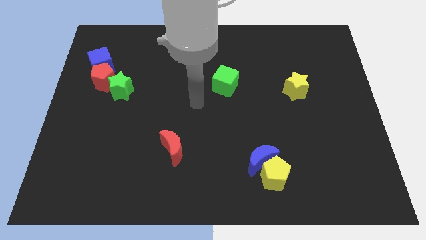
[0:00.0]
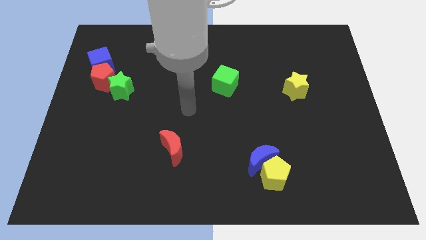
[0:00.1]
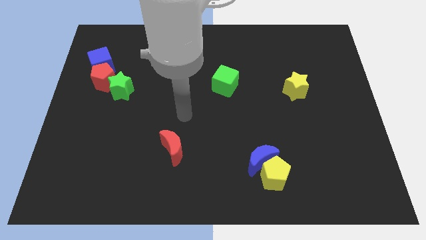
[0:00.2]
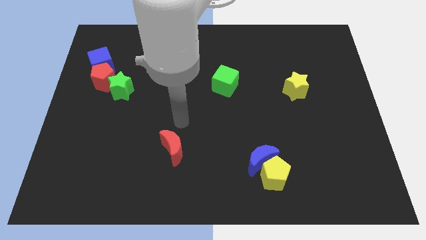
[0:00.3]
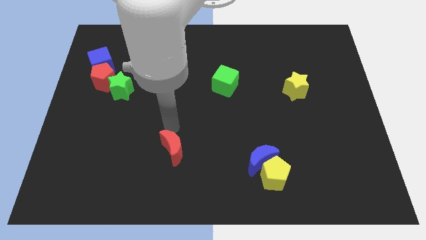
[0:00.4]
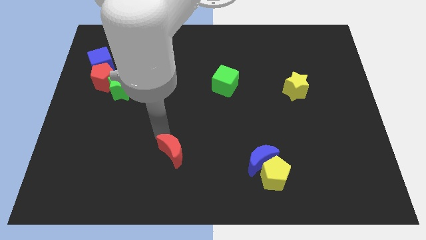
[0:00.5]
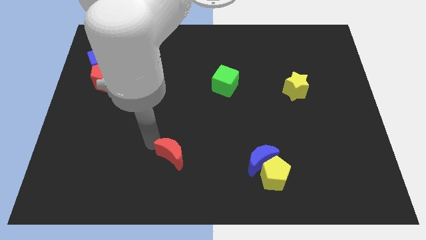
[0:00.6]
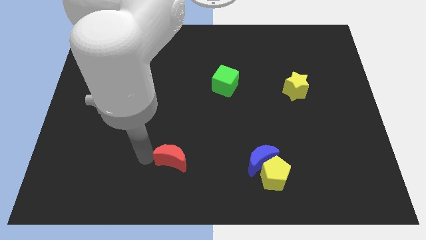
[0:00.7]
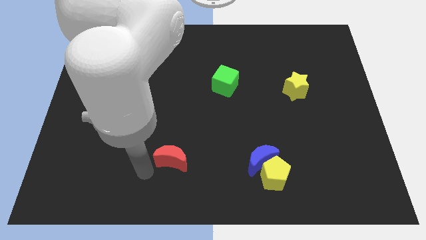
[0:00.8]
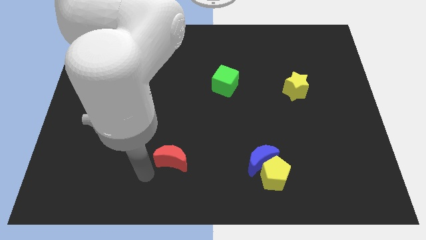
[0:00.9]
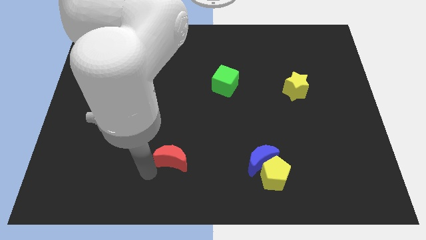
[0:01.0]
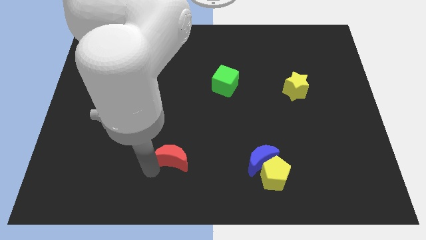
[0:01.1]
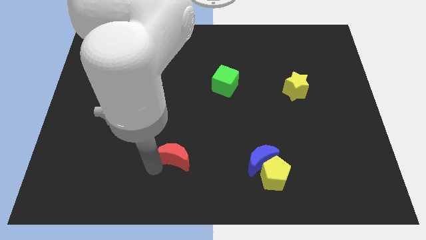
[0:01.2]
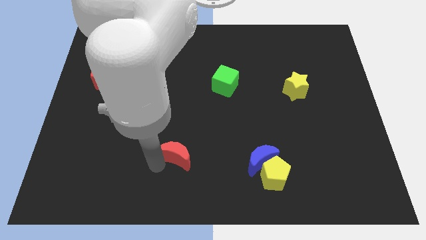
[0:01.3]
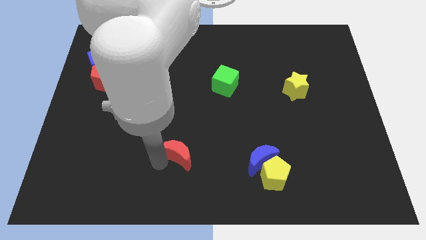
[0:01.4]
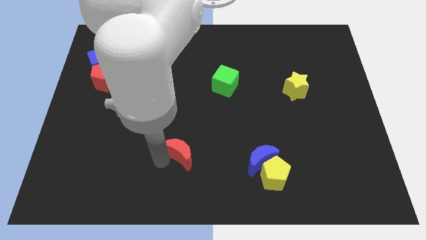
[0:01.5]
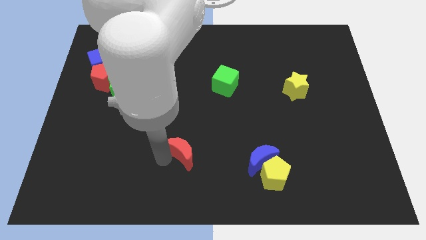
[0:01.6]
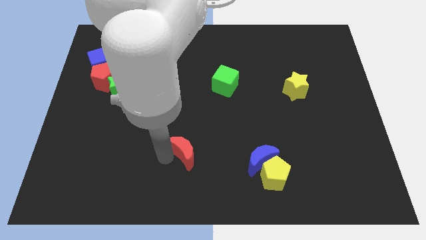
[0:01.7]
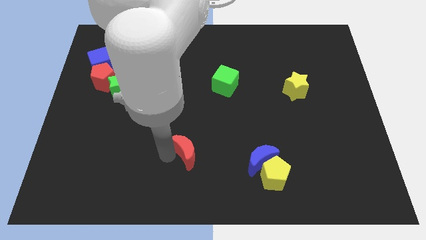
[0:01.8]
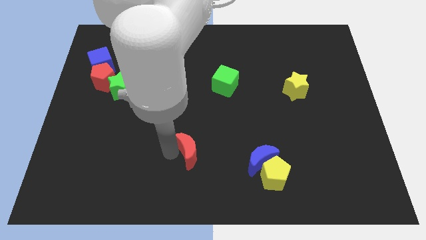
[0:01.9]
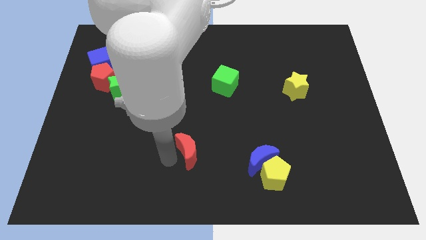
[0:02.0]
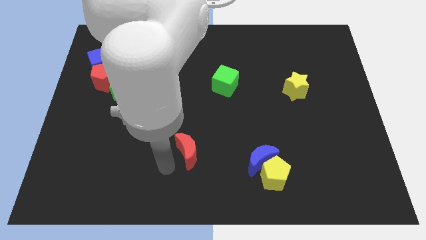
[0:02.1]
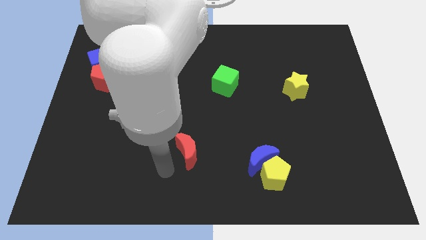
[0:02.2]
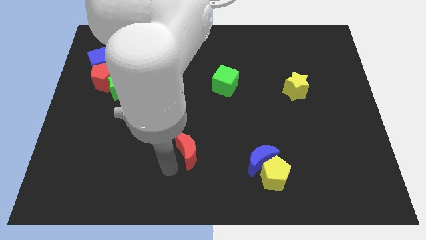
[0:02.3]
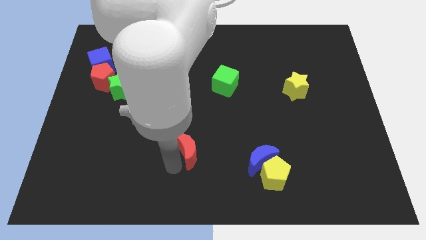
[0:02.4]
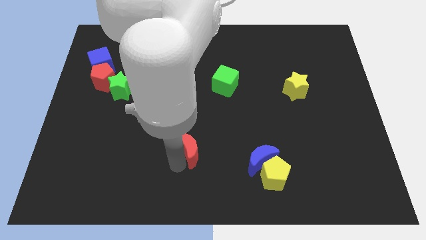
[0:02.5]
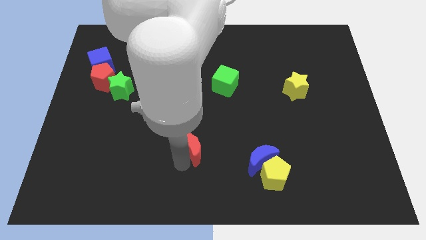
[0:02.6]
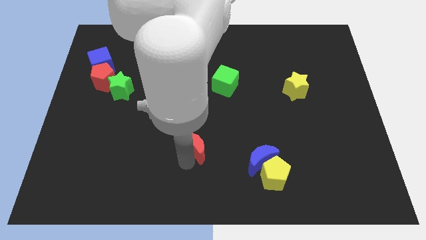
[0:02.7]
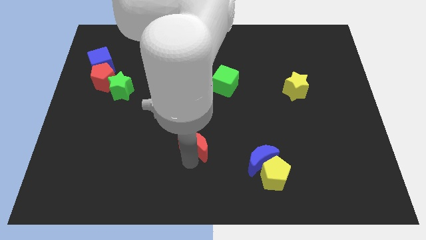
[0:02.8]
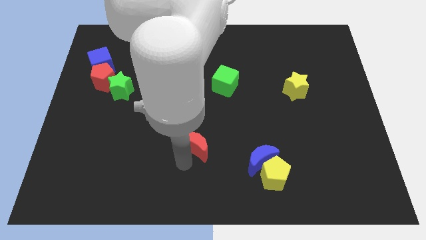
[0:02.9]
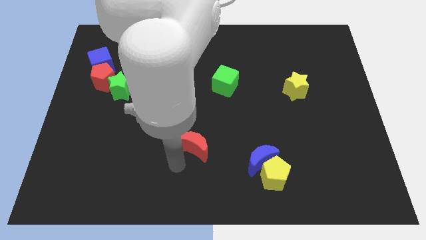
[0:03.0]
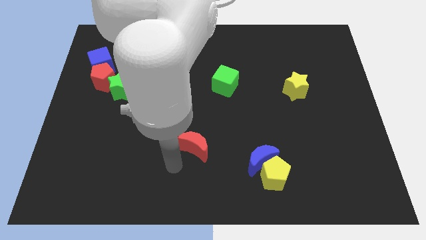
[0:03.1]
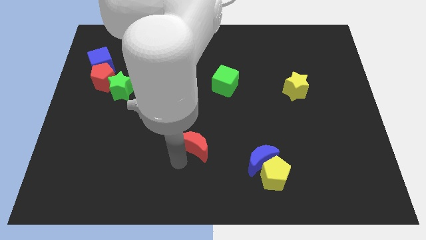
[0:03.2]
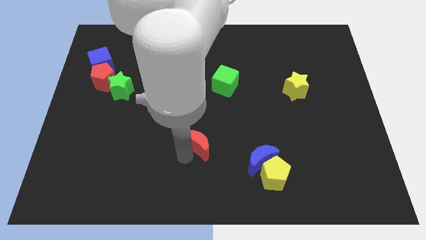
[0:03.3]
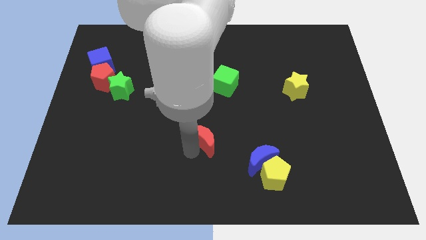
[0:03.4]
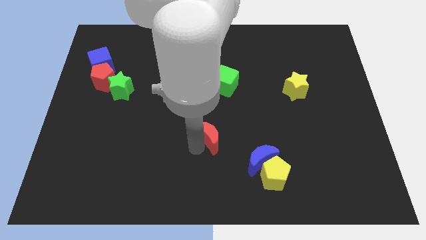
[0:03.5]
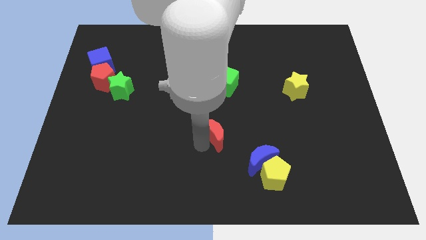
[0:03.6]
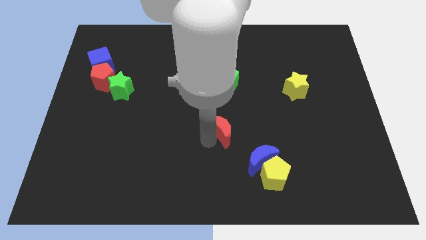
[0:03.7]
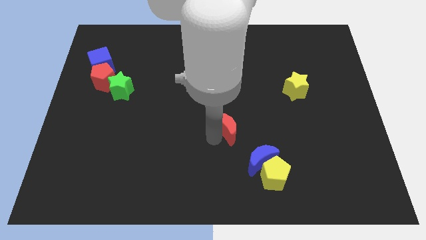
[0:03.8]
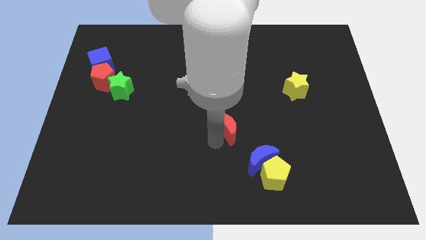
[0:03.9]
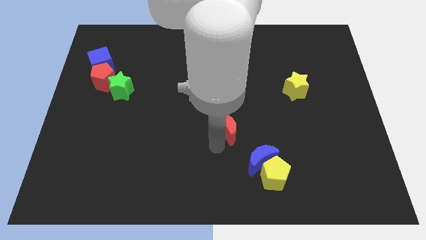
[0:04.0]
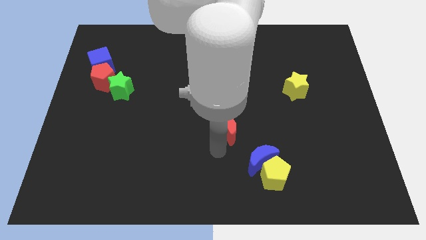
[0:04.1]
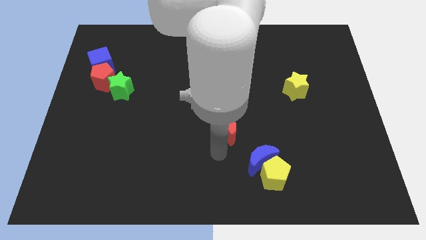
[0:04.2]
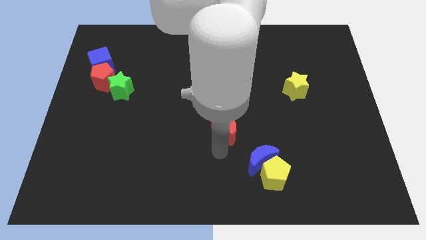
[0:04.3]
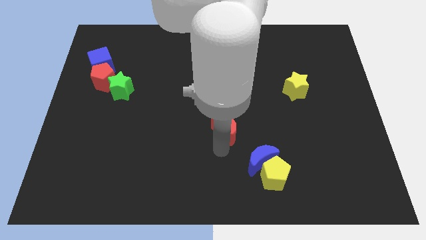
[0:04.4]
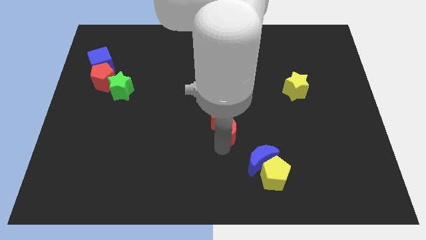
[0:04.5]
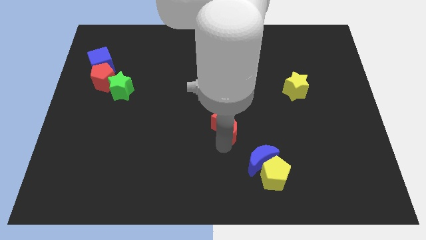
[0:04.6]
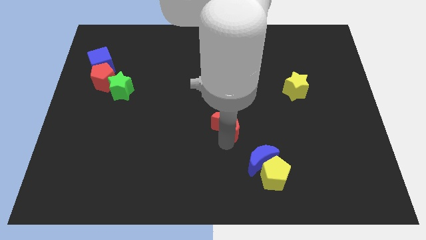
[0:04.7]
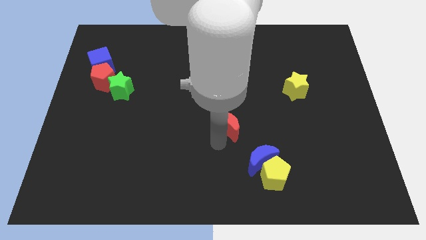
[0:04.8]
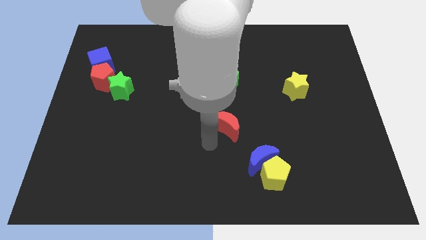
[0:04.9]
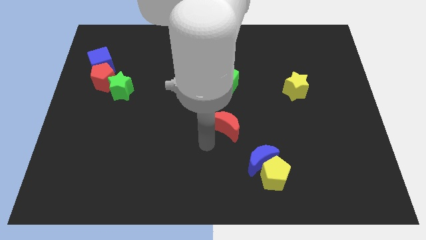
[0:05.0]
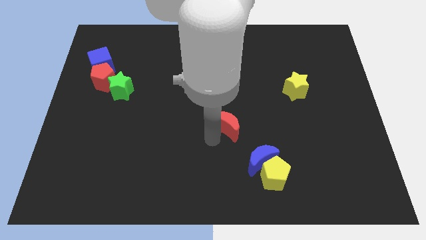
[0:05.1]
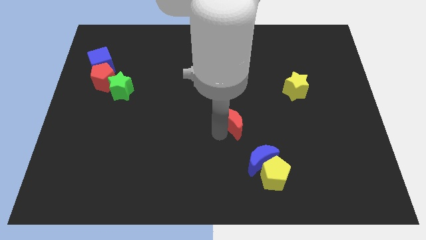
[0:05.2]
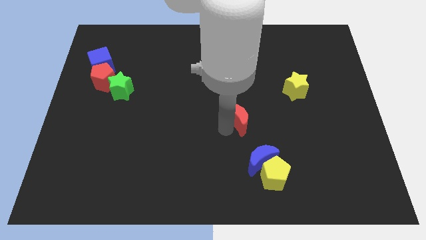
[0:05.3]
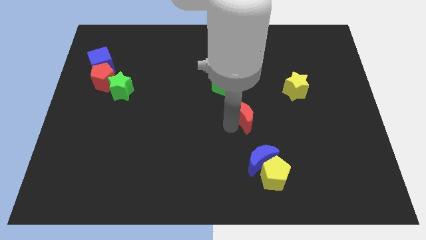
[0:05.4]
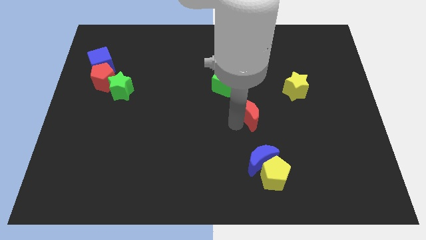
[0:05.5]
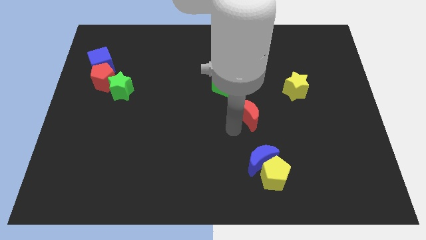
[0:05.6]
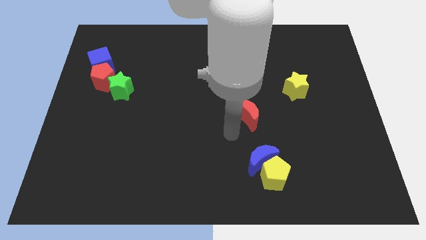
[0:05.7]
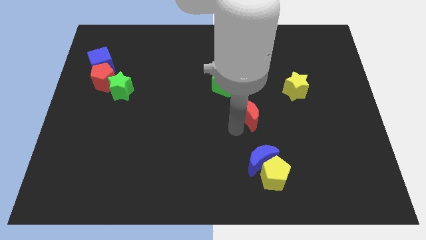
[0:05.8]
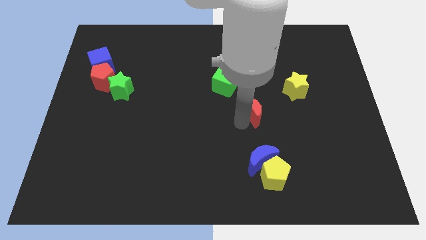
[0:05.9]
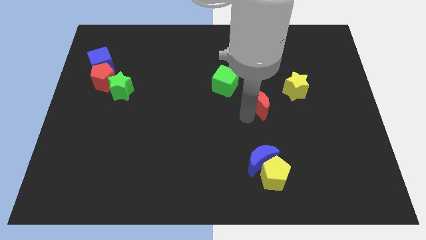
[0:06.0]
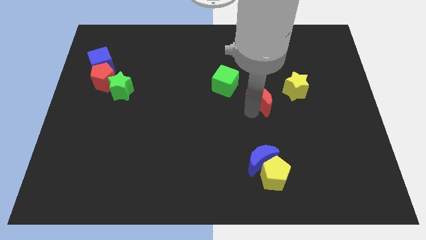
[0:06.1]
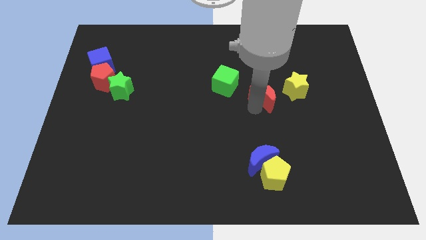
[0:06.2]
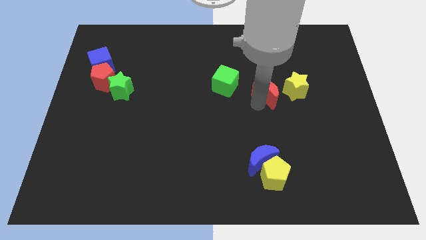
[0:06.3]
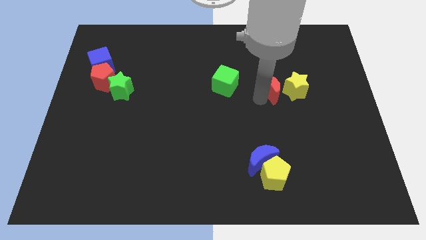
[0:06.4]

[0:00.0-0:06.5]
slide the red moon next to the yellow star
